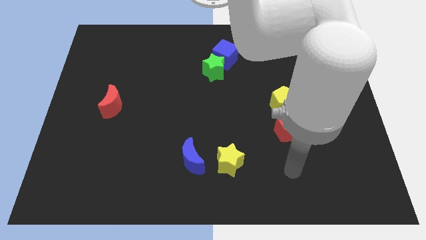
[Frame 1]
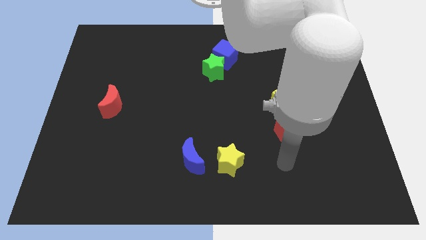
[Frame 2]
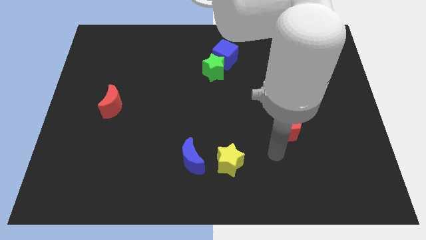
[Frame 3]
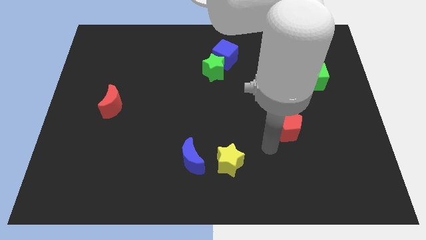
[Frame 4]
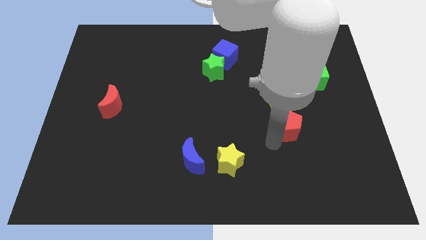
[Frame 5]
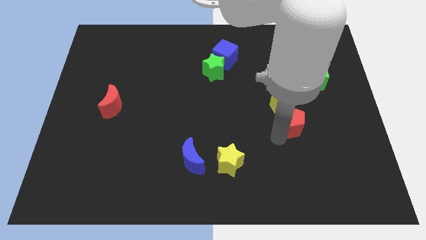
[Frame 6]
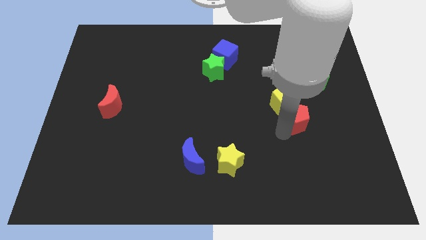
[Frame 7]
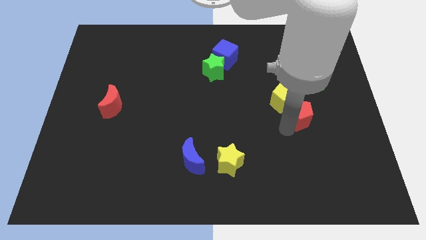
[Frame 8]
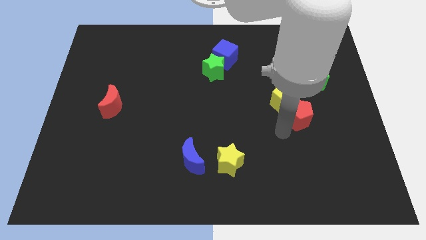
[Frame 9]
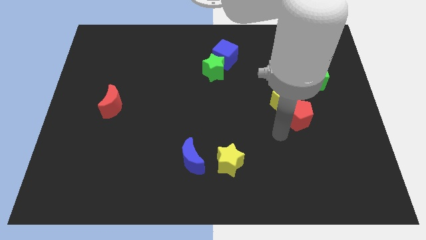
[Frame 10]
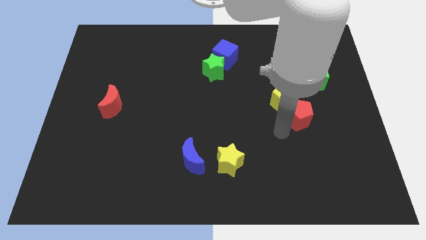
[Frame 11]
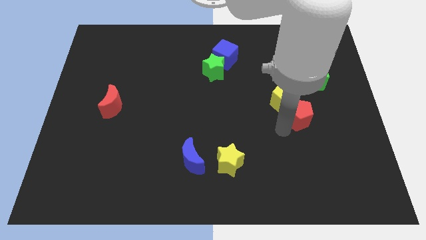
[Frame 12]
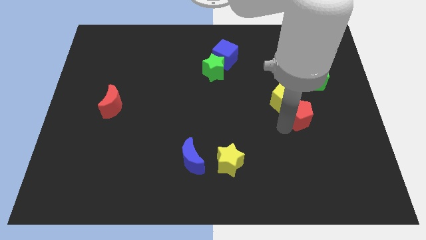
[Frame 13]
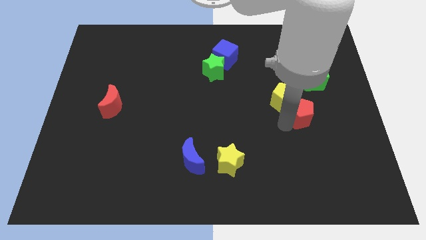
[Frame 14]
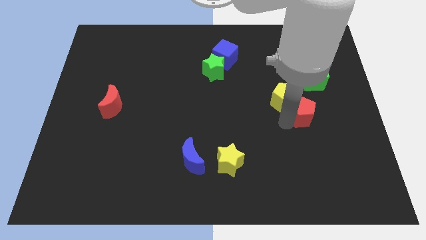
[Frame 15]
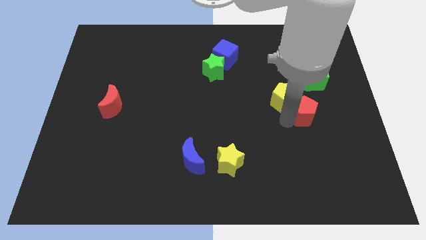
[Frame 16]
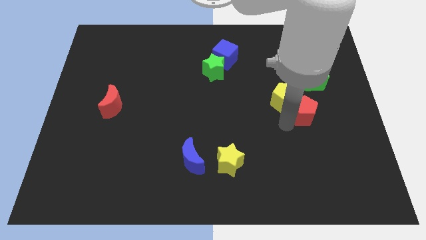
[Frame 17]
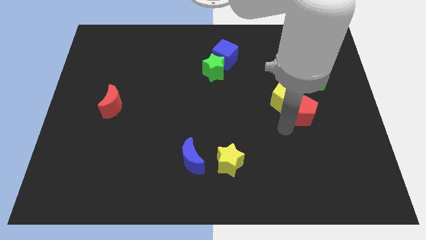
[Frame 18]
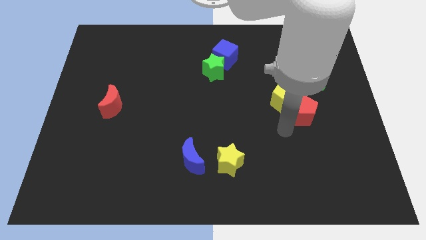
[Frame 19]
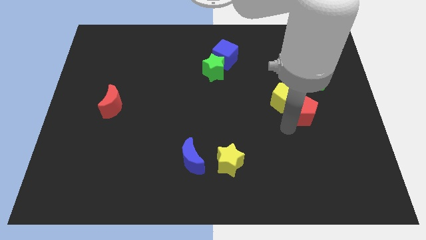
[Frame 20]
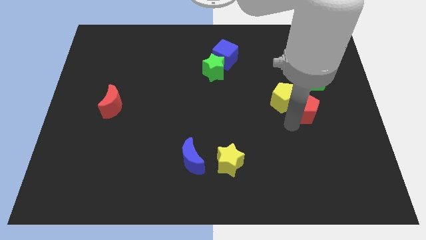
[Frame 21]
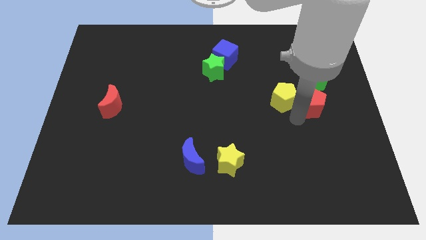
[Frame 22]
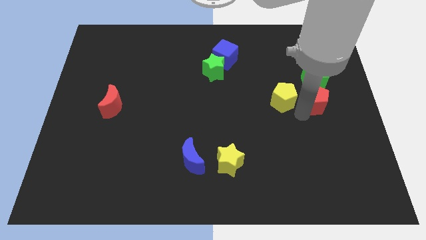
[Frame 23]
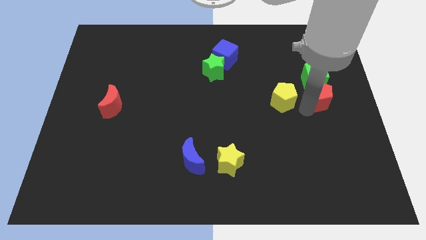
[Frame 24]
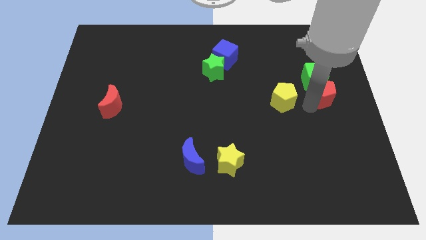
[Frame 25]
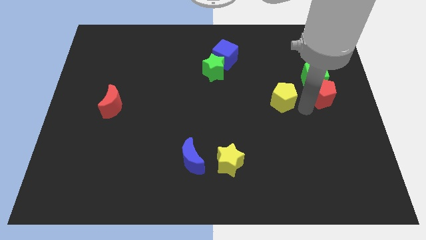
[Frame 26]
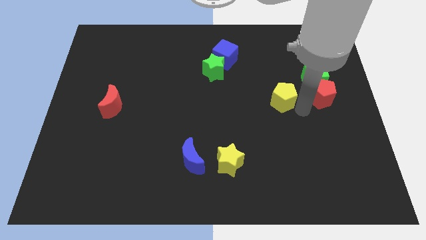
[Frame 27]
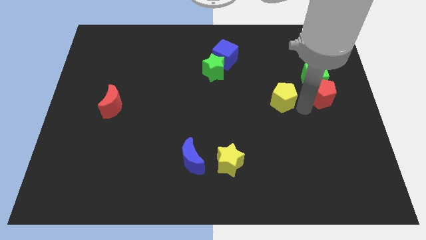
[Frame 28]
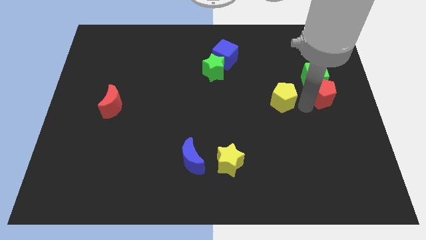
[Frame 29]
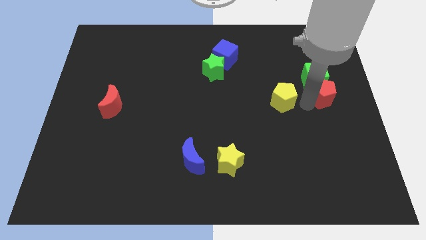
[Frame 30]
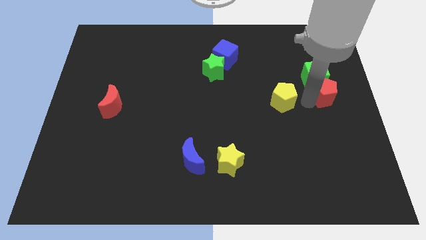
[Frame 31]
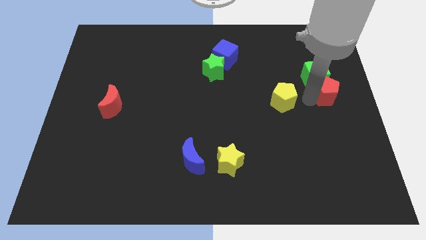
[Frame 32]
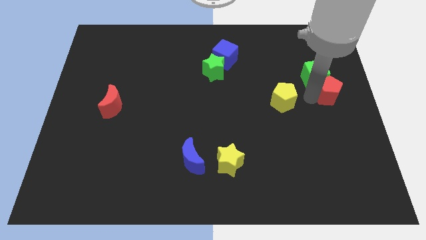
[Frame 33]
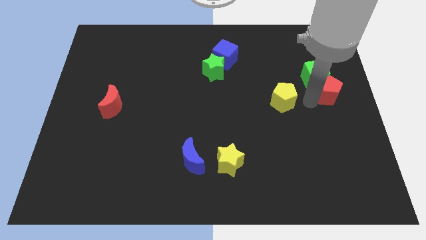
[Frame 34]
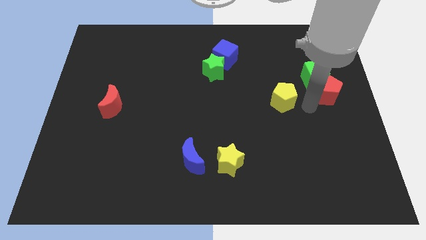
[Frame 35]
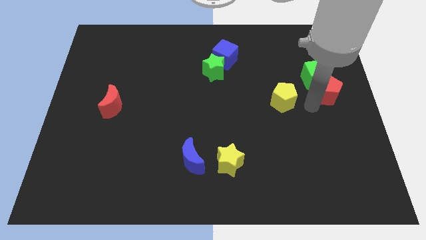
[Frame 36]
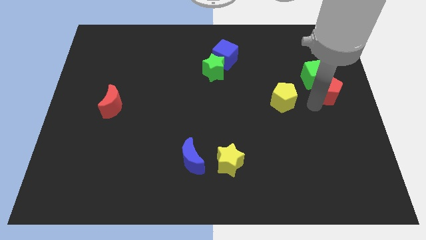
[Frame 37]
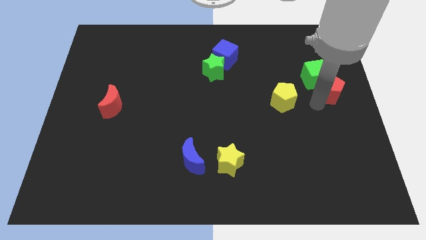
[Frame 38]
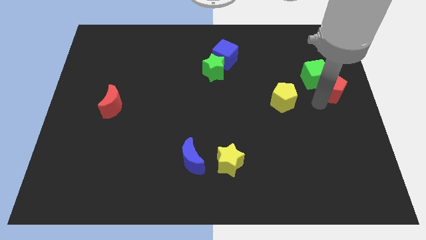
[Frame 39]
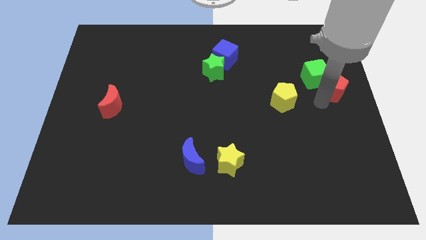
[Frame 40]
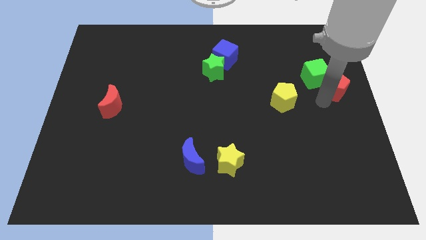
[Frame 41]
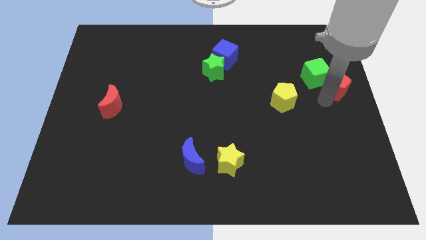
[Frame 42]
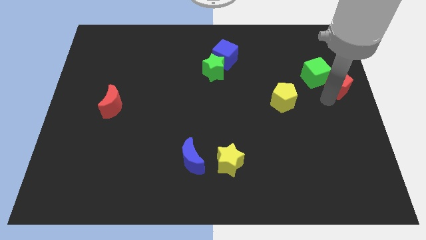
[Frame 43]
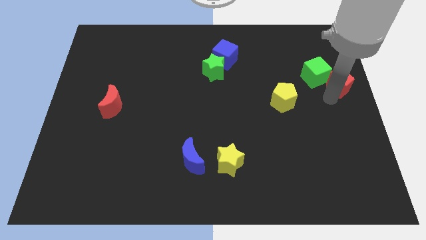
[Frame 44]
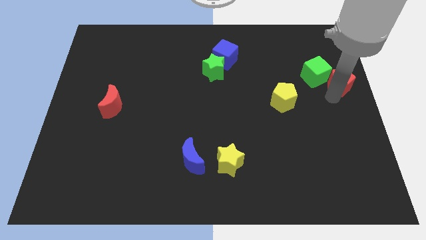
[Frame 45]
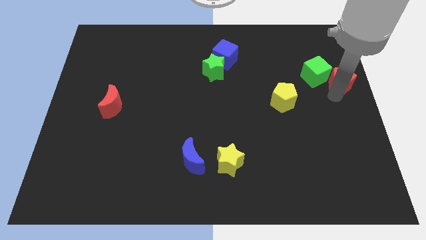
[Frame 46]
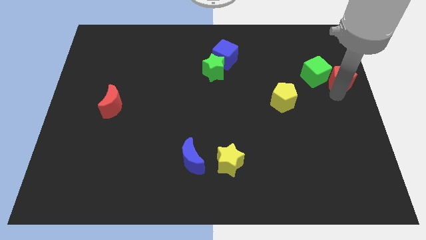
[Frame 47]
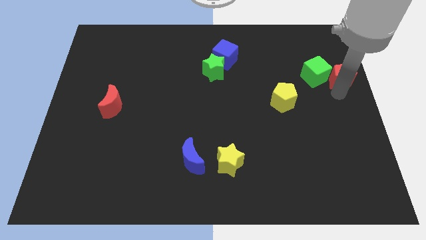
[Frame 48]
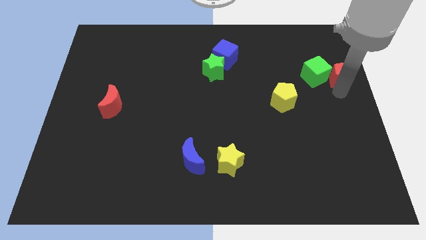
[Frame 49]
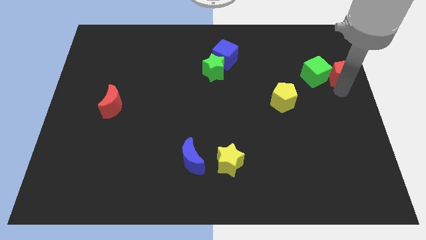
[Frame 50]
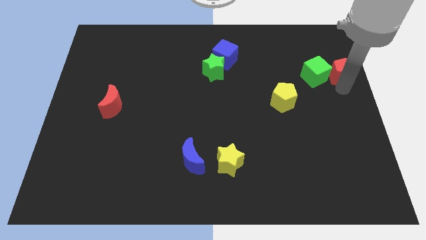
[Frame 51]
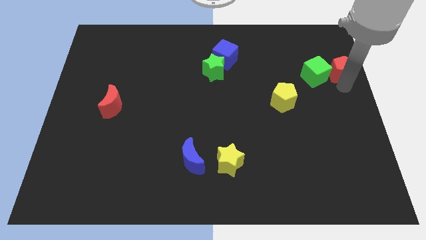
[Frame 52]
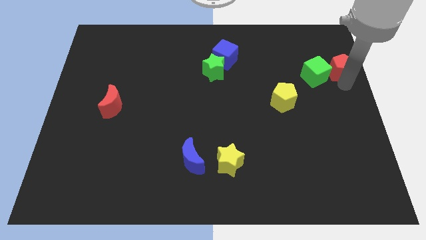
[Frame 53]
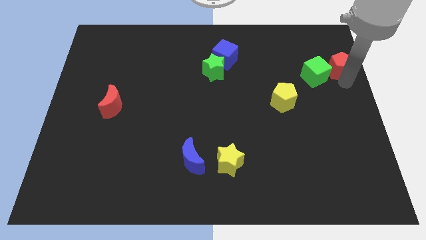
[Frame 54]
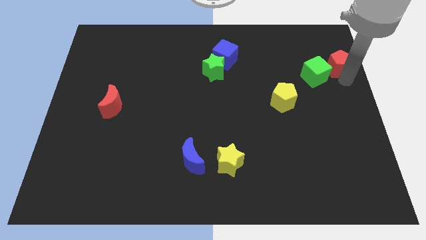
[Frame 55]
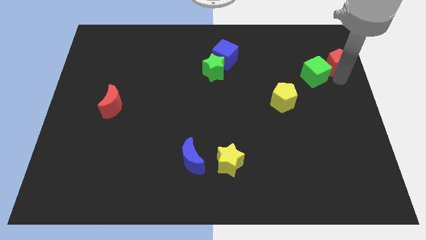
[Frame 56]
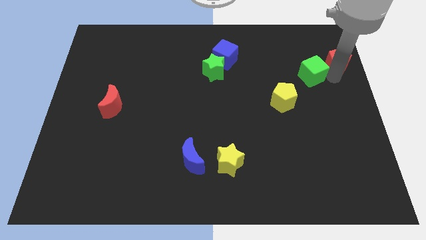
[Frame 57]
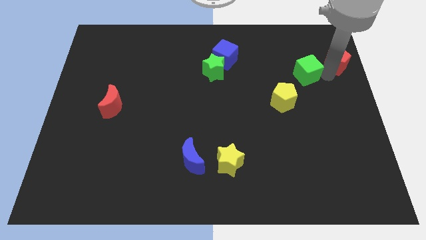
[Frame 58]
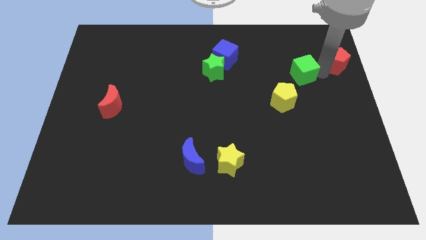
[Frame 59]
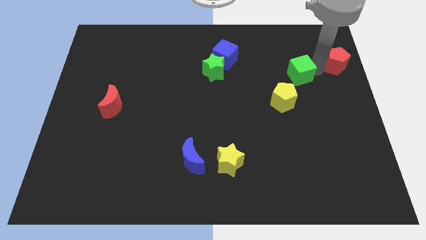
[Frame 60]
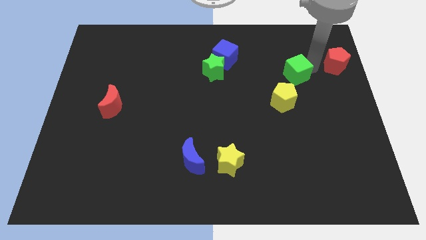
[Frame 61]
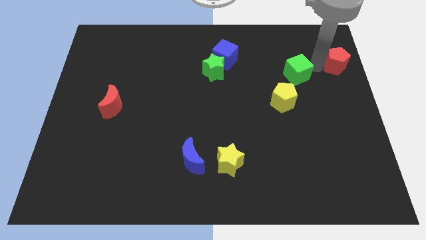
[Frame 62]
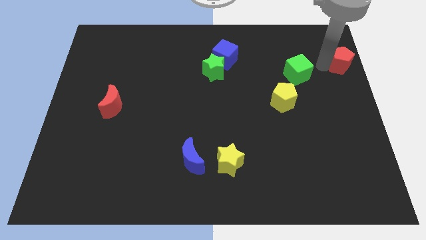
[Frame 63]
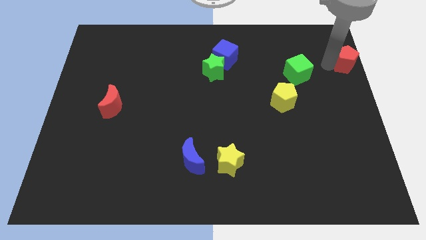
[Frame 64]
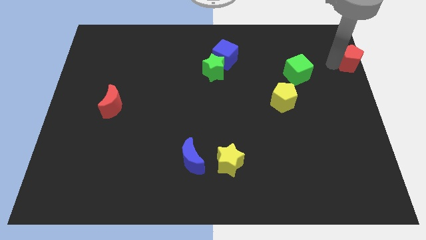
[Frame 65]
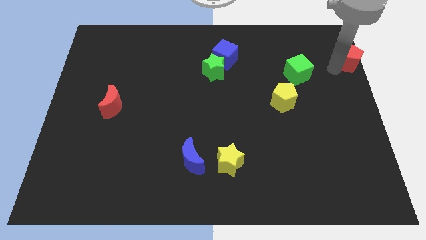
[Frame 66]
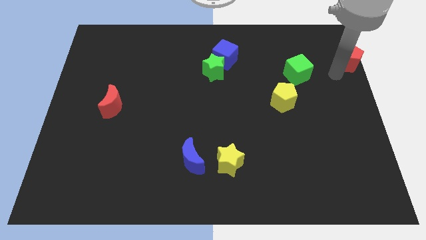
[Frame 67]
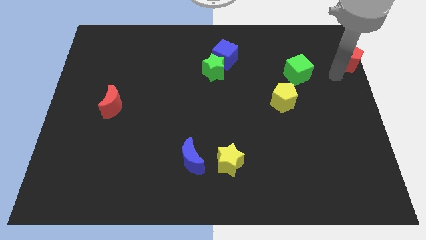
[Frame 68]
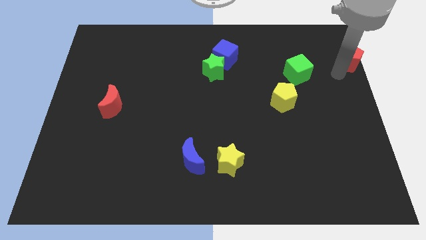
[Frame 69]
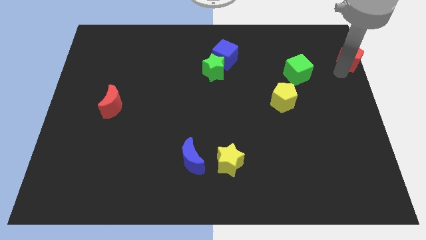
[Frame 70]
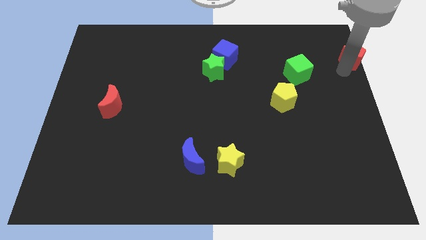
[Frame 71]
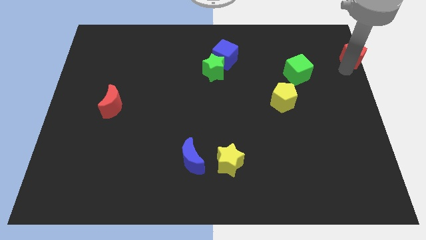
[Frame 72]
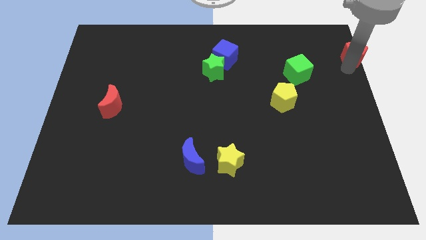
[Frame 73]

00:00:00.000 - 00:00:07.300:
put the red pentagon to the top right corner
